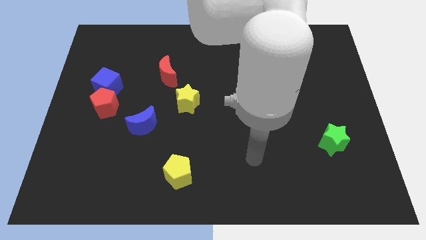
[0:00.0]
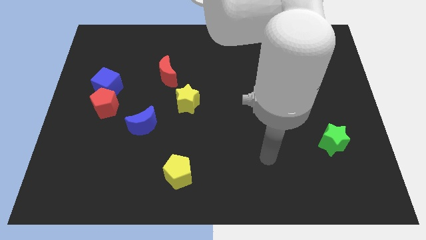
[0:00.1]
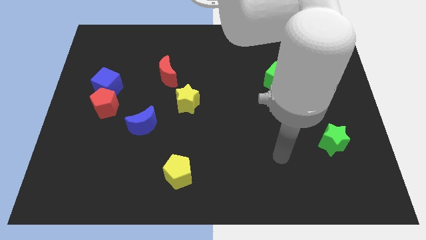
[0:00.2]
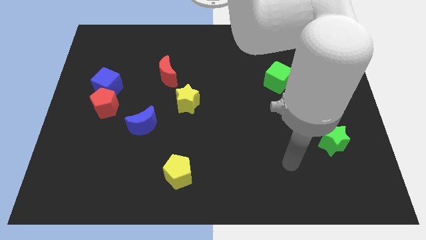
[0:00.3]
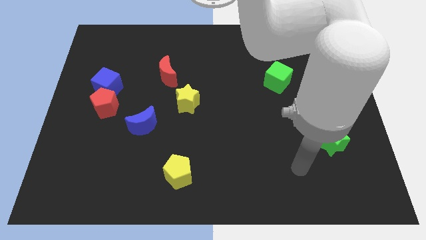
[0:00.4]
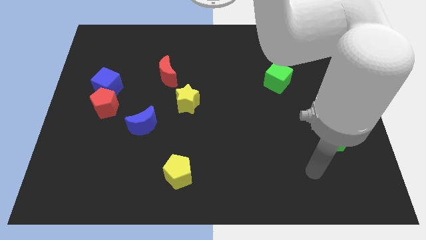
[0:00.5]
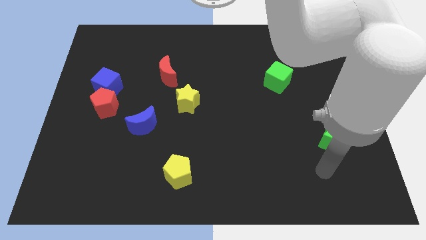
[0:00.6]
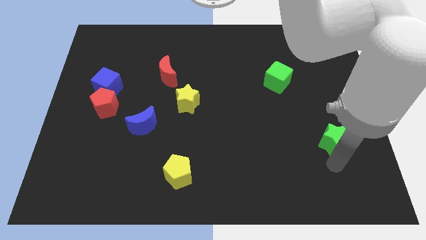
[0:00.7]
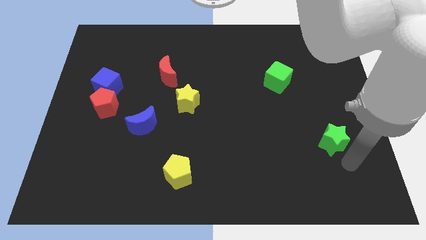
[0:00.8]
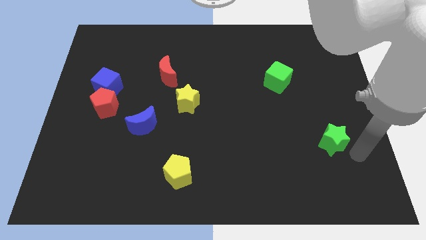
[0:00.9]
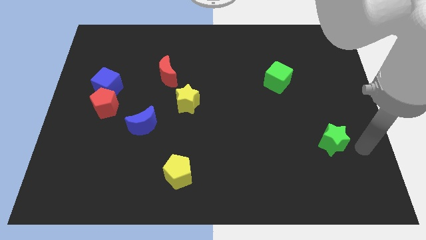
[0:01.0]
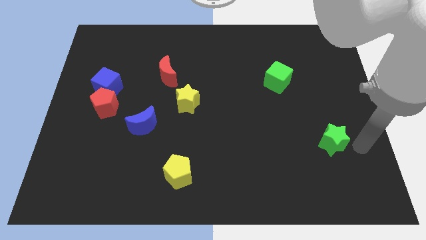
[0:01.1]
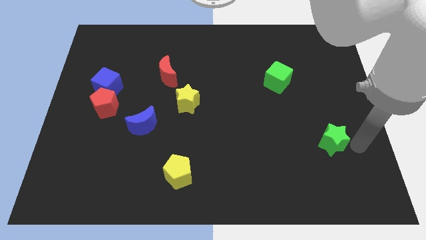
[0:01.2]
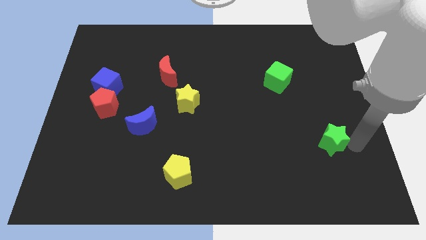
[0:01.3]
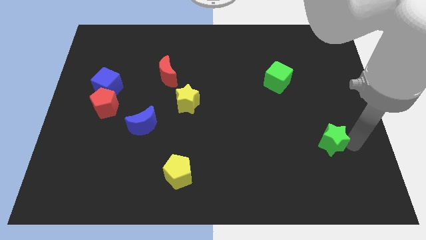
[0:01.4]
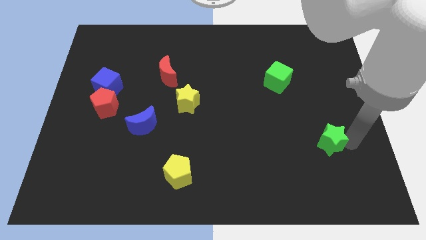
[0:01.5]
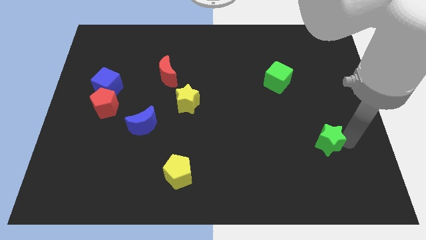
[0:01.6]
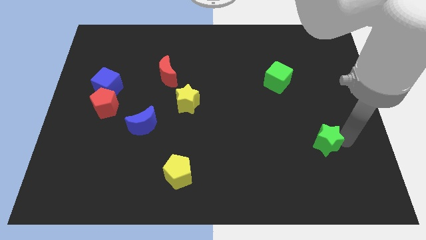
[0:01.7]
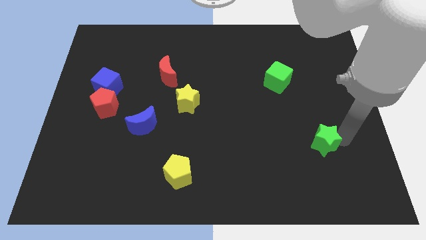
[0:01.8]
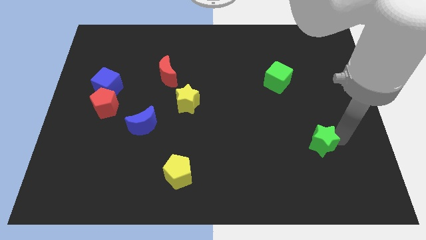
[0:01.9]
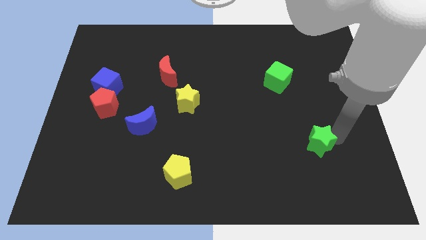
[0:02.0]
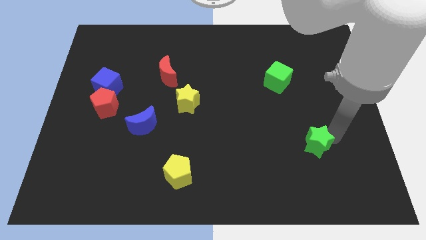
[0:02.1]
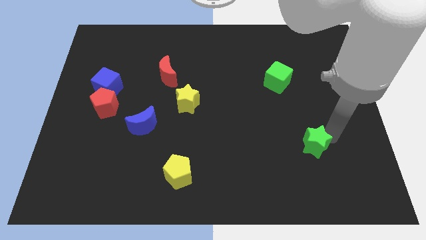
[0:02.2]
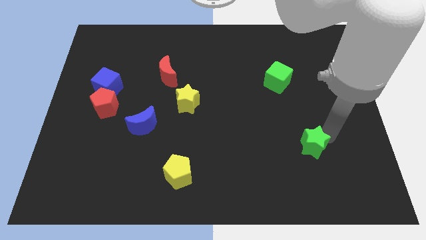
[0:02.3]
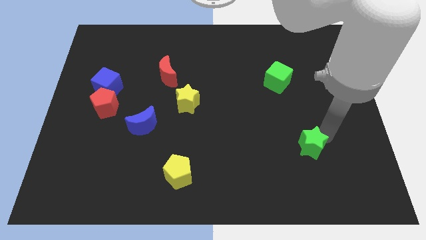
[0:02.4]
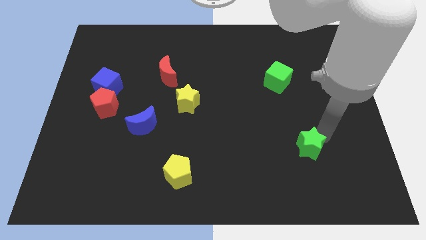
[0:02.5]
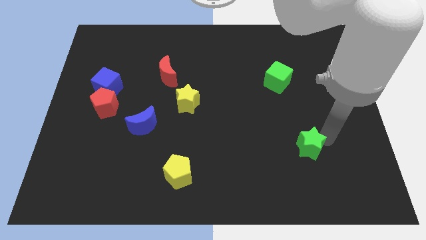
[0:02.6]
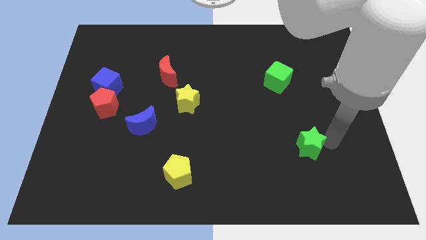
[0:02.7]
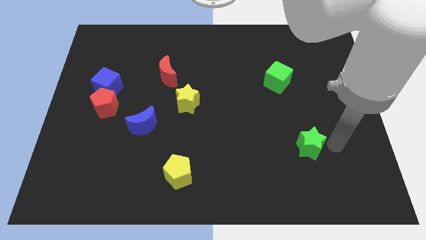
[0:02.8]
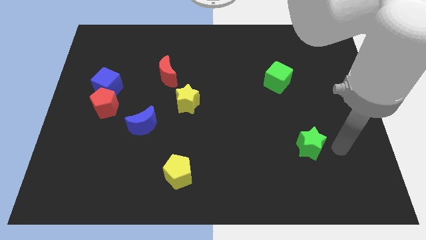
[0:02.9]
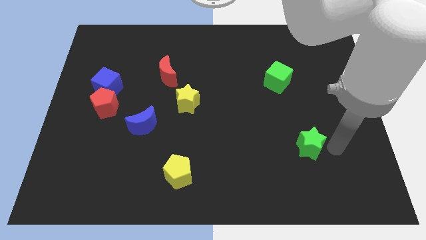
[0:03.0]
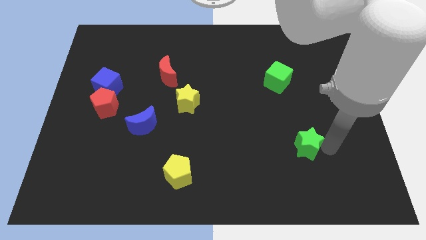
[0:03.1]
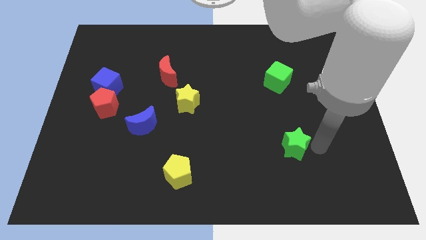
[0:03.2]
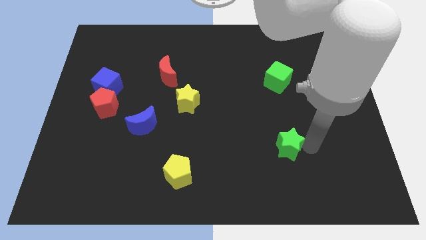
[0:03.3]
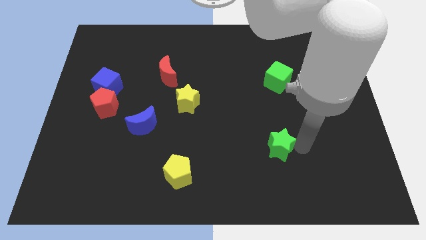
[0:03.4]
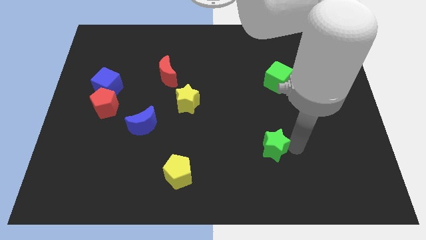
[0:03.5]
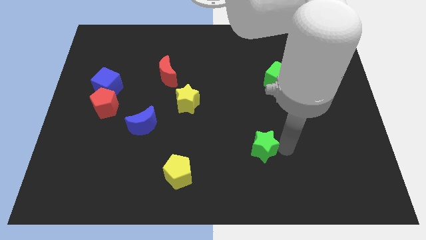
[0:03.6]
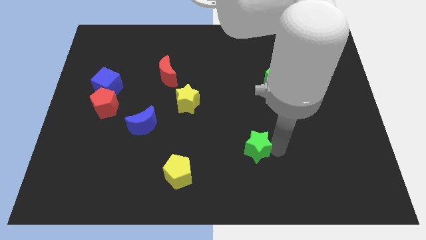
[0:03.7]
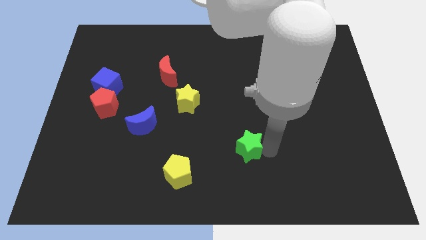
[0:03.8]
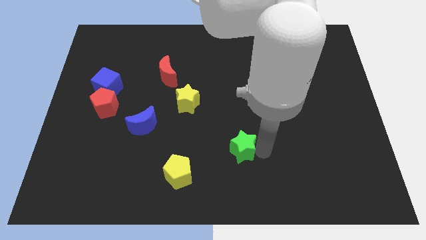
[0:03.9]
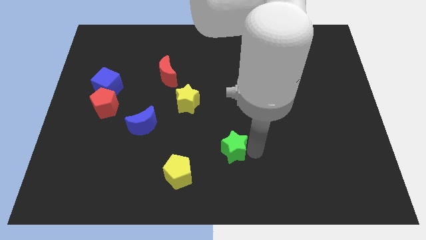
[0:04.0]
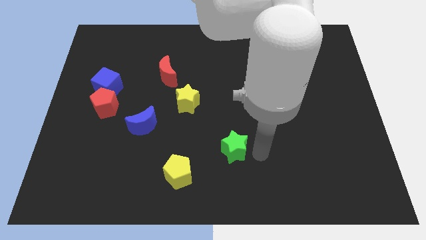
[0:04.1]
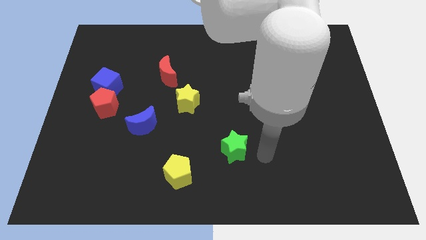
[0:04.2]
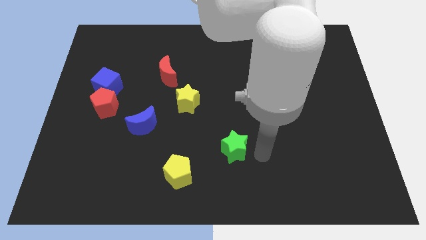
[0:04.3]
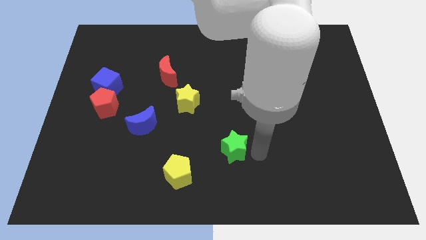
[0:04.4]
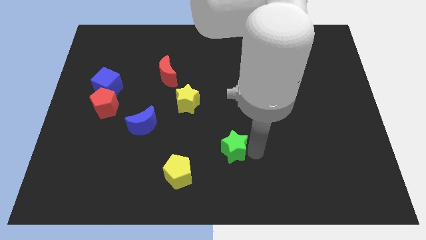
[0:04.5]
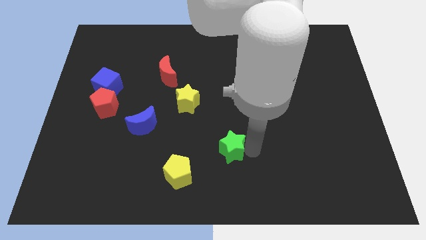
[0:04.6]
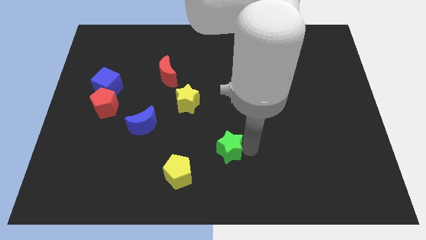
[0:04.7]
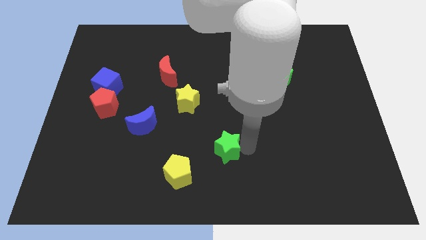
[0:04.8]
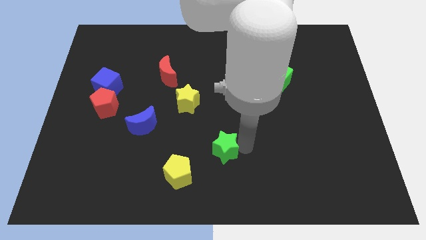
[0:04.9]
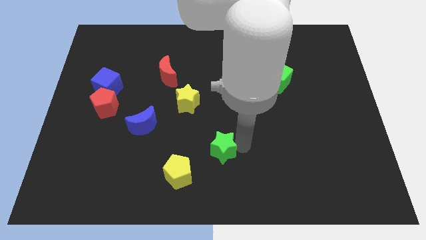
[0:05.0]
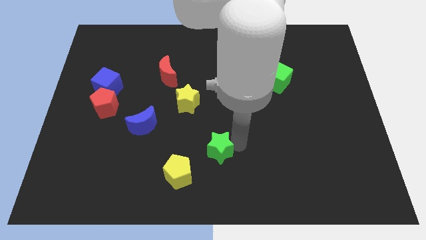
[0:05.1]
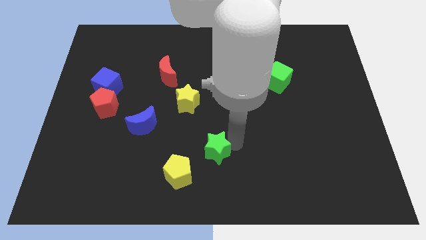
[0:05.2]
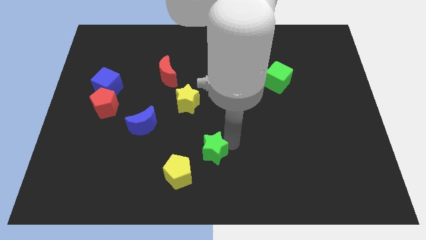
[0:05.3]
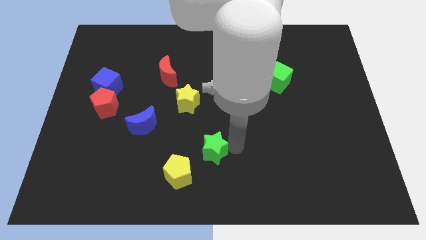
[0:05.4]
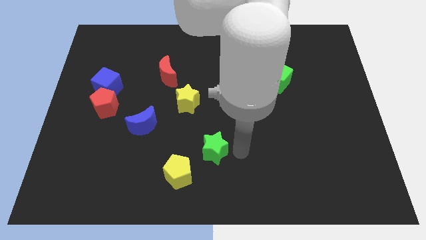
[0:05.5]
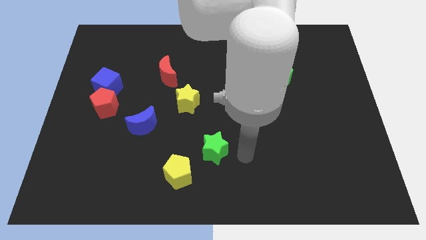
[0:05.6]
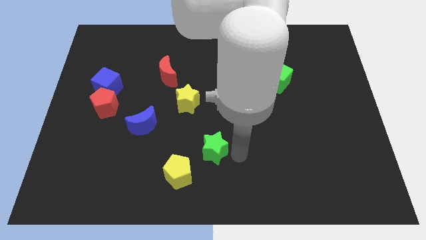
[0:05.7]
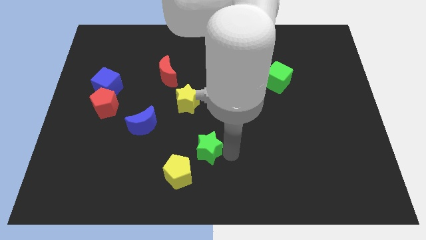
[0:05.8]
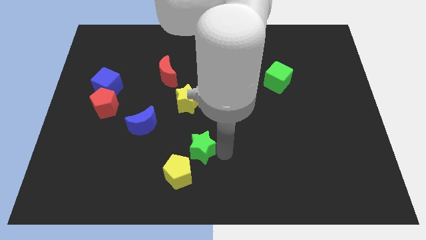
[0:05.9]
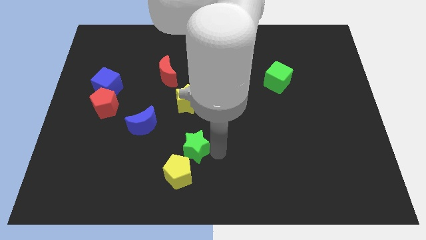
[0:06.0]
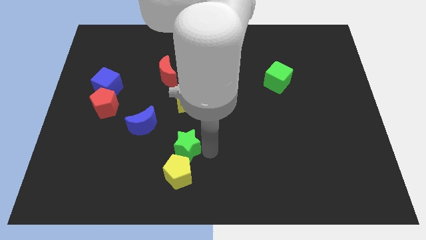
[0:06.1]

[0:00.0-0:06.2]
move the green star diagonally down and to the right of the blue moon
